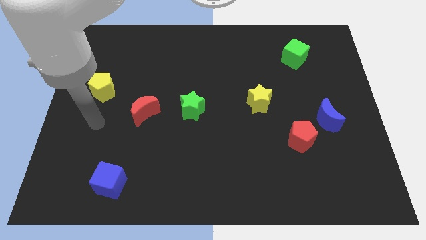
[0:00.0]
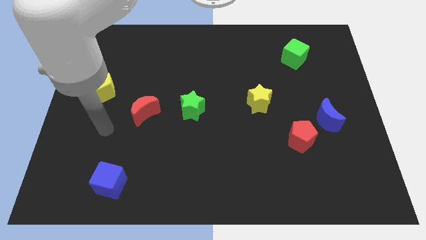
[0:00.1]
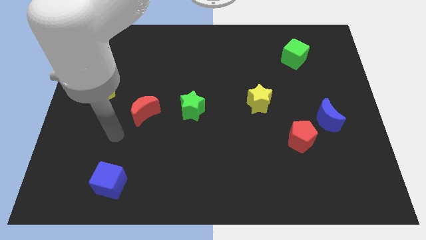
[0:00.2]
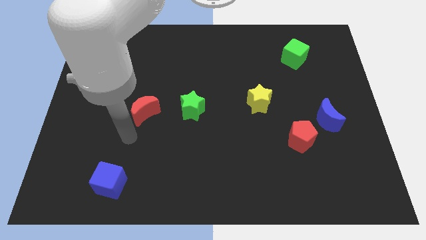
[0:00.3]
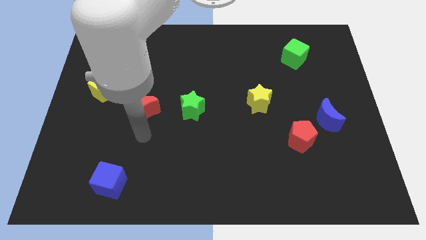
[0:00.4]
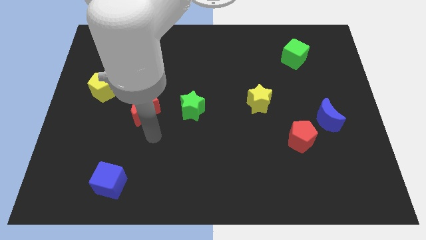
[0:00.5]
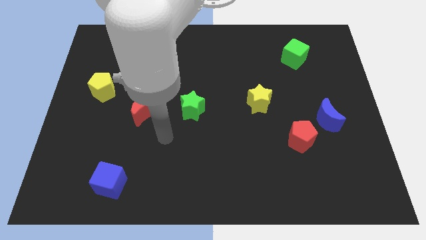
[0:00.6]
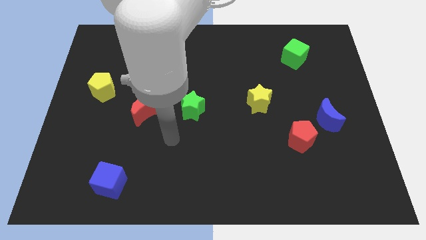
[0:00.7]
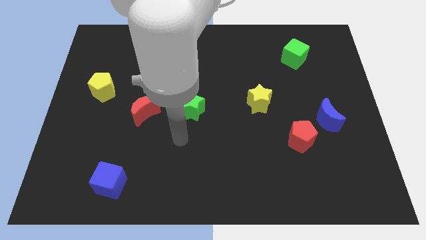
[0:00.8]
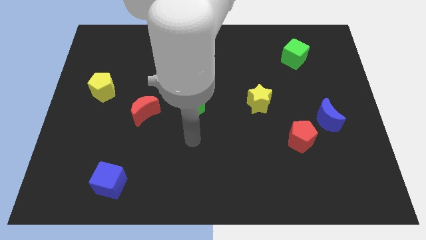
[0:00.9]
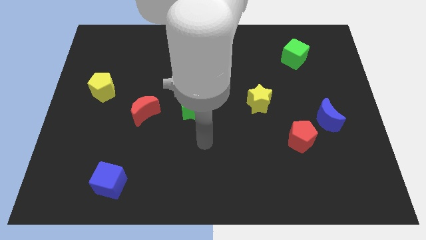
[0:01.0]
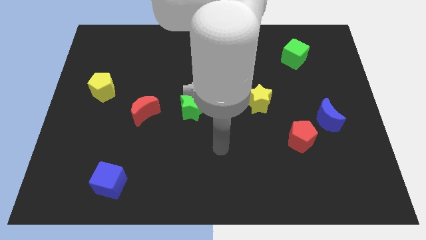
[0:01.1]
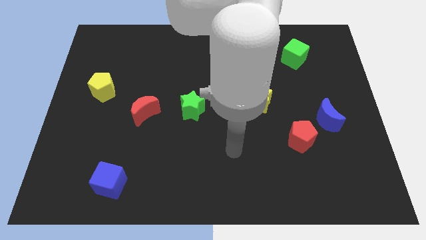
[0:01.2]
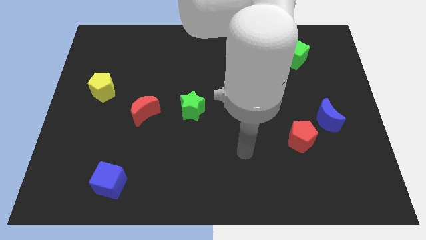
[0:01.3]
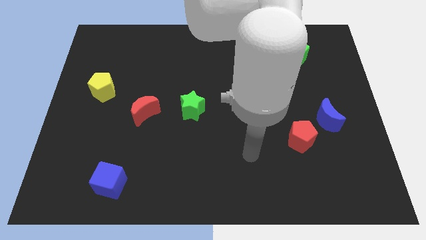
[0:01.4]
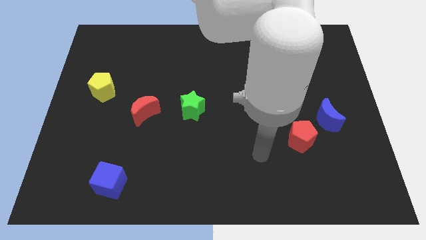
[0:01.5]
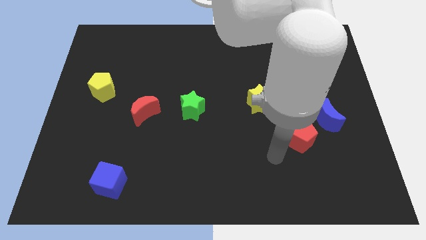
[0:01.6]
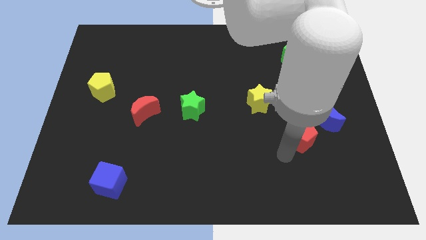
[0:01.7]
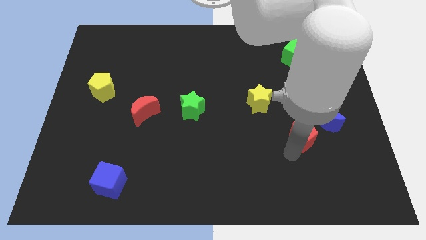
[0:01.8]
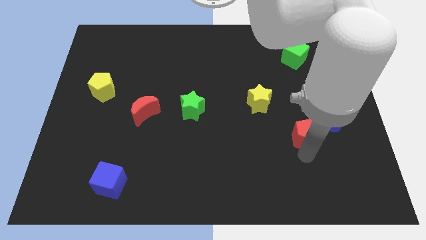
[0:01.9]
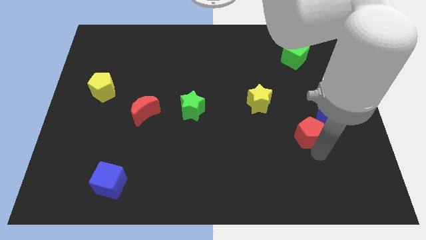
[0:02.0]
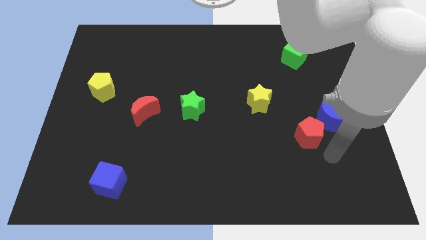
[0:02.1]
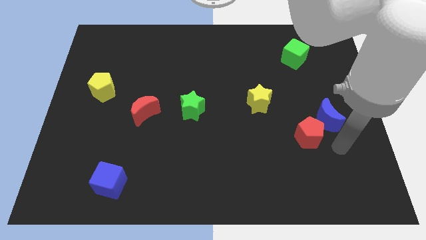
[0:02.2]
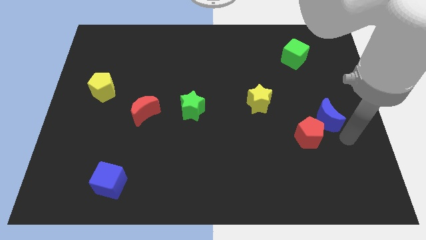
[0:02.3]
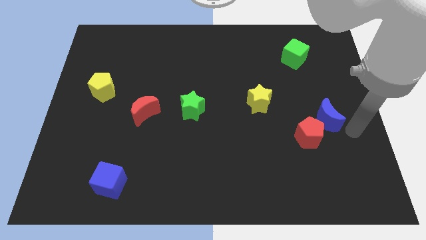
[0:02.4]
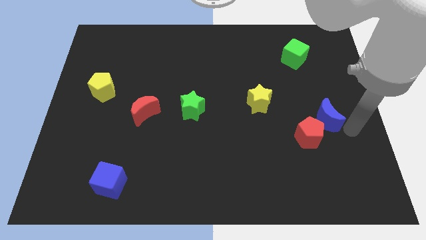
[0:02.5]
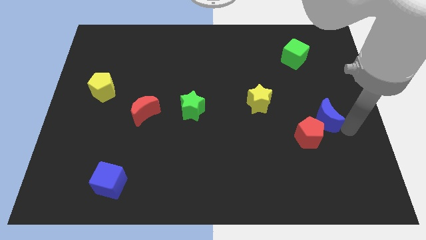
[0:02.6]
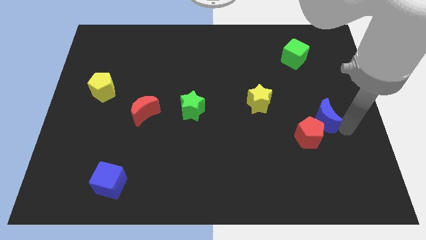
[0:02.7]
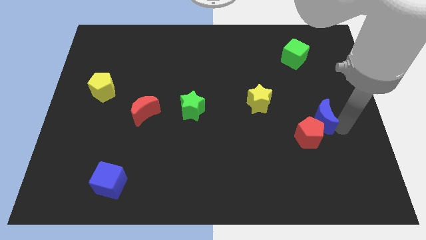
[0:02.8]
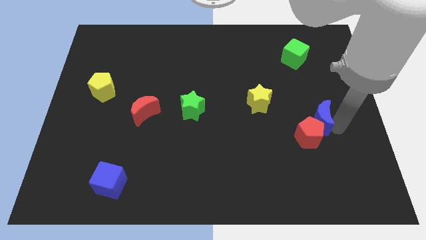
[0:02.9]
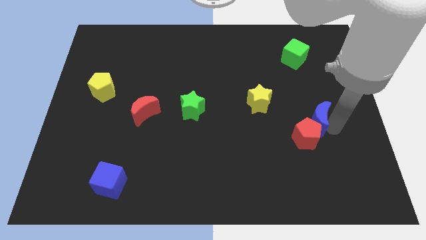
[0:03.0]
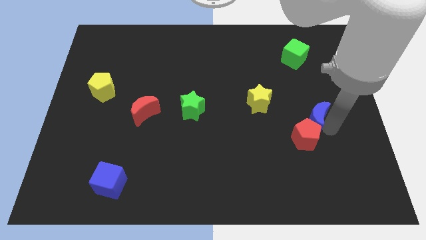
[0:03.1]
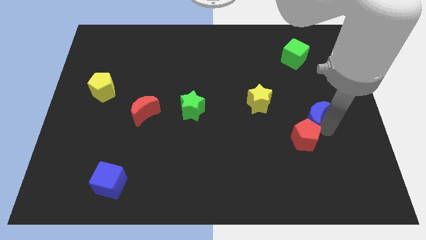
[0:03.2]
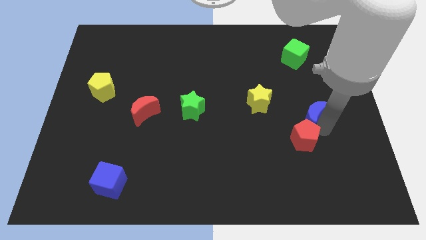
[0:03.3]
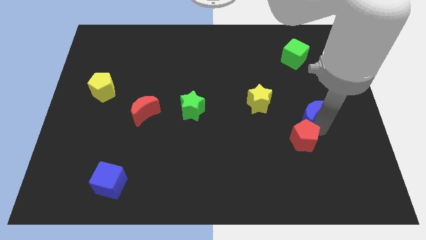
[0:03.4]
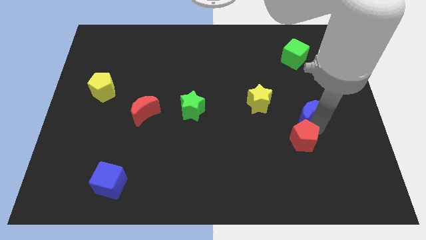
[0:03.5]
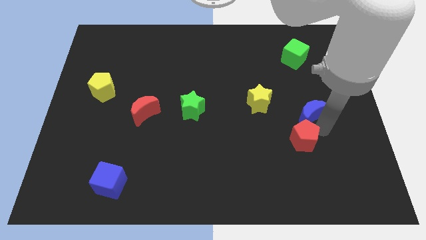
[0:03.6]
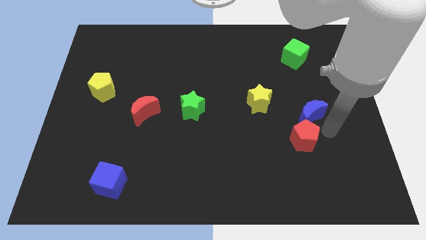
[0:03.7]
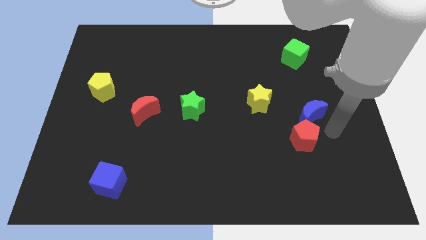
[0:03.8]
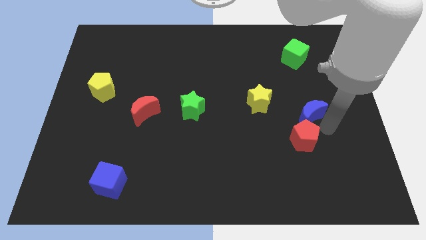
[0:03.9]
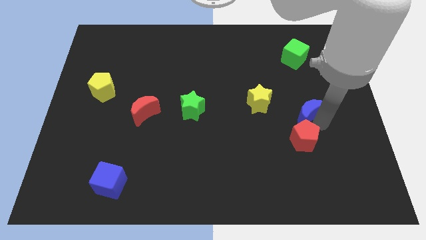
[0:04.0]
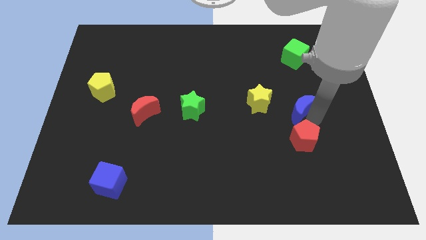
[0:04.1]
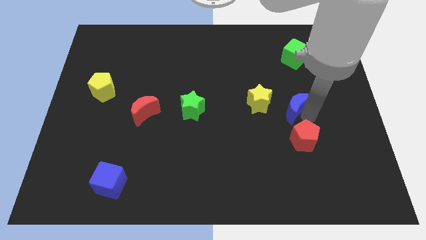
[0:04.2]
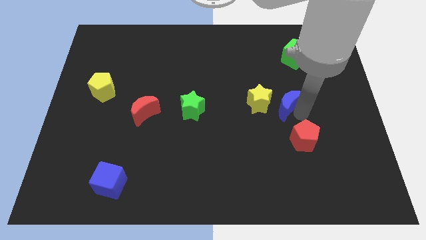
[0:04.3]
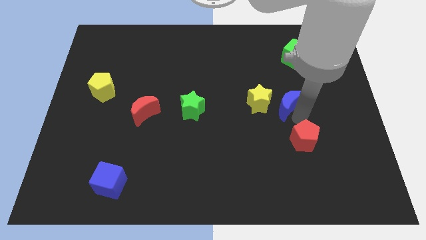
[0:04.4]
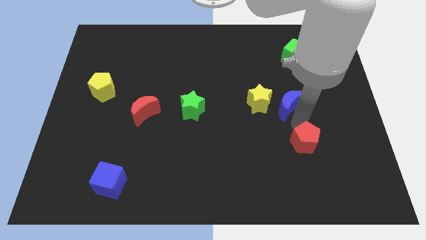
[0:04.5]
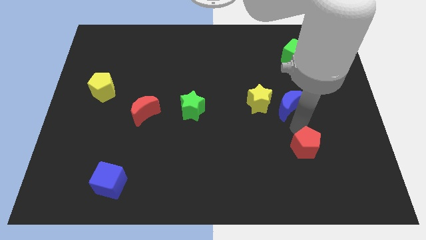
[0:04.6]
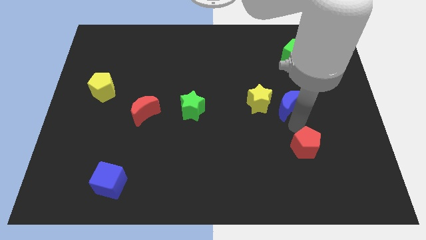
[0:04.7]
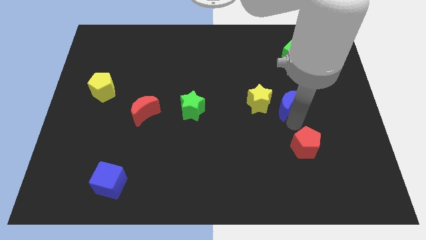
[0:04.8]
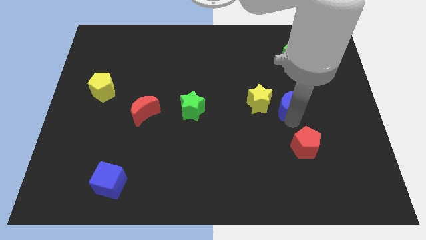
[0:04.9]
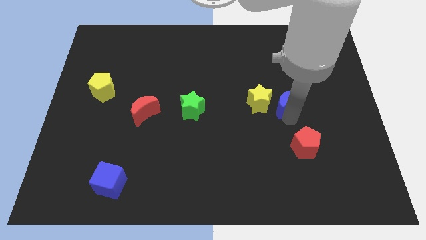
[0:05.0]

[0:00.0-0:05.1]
push the blue moon diagonally up and to the right of the yellow star

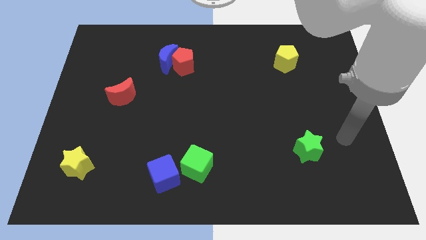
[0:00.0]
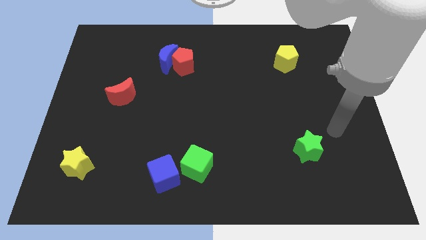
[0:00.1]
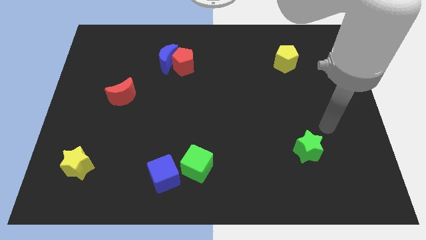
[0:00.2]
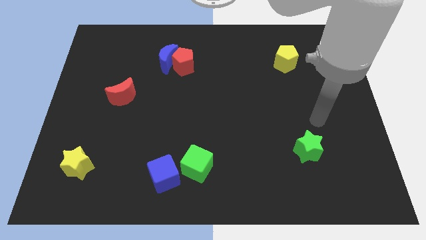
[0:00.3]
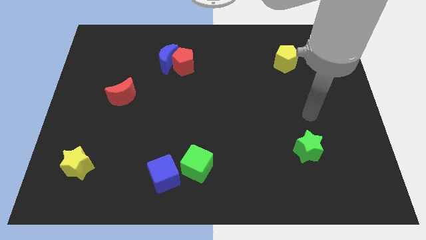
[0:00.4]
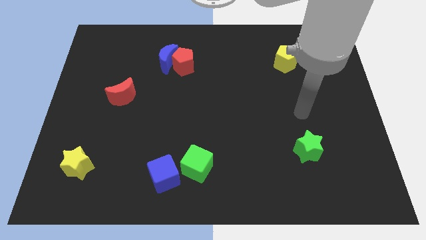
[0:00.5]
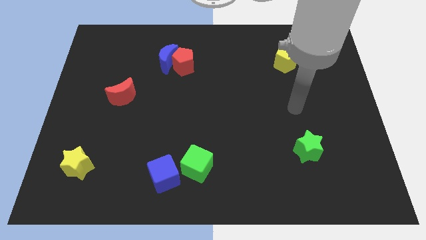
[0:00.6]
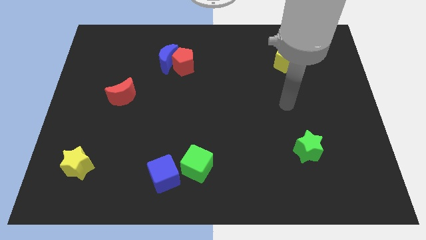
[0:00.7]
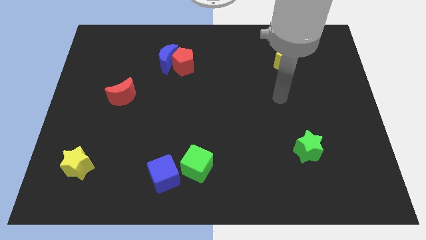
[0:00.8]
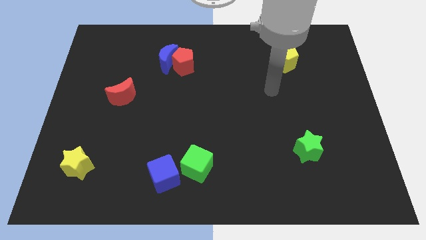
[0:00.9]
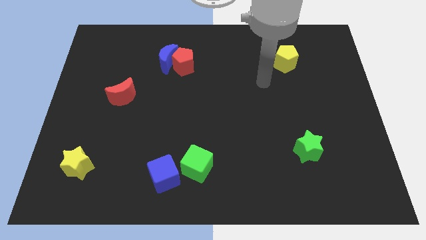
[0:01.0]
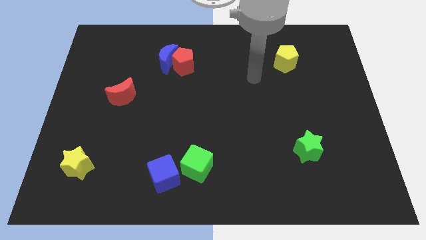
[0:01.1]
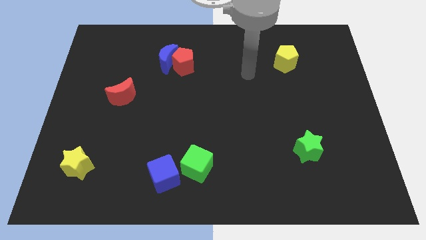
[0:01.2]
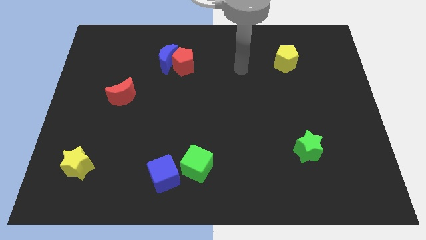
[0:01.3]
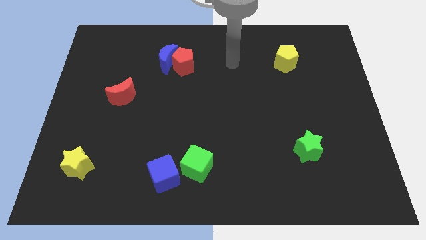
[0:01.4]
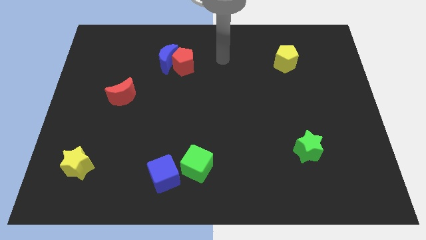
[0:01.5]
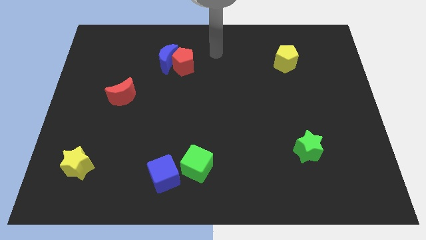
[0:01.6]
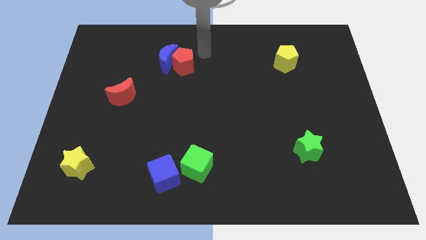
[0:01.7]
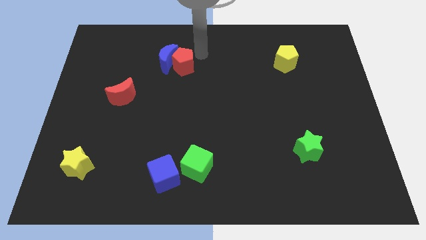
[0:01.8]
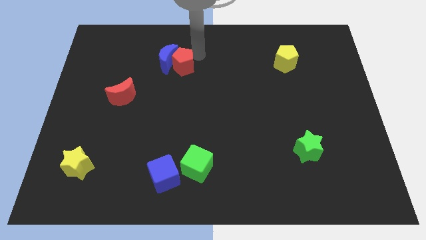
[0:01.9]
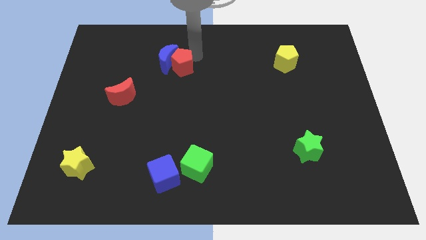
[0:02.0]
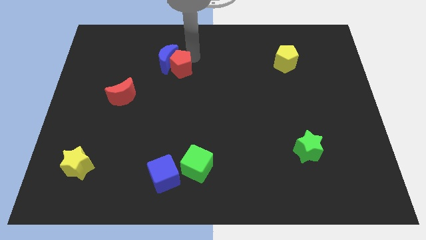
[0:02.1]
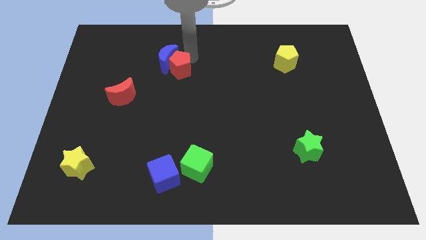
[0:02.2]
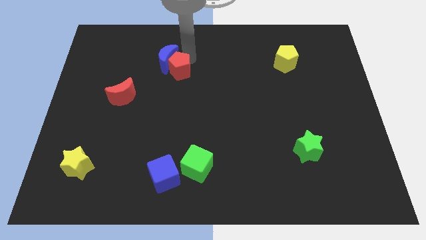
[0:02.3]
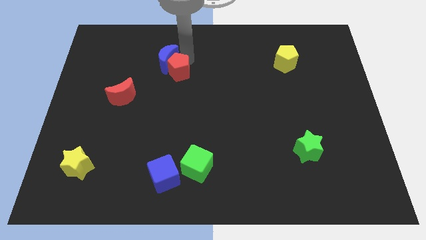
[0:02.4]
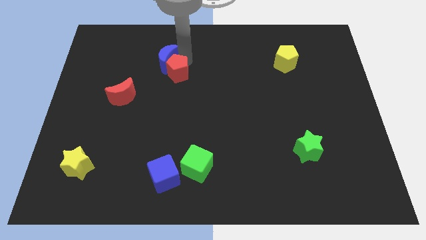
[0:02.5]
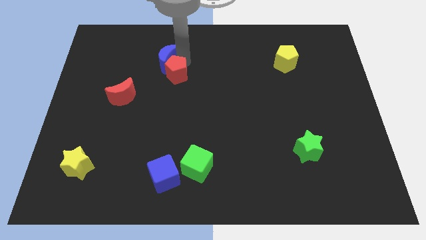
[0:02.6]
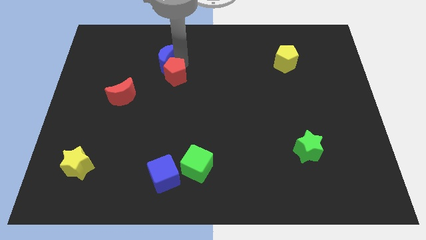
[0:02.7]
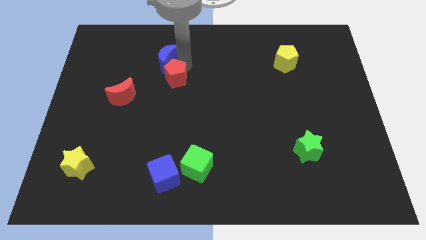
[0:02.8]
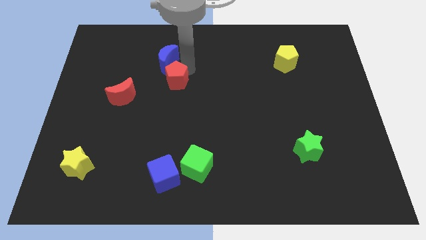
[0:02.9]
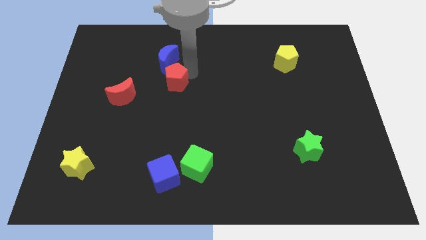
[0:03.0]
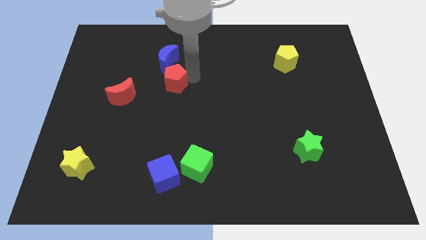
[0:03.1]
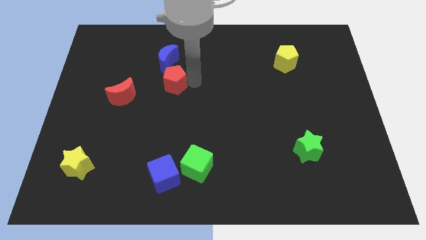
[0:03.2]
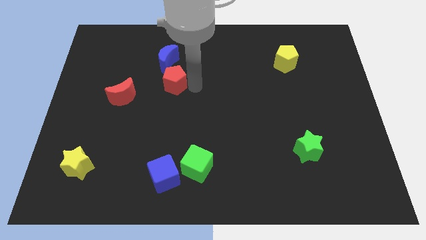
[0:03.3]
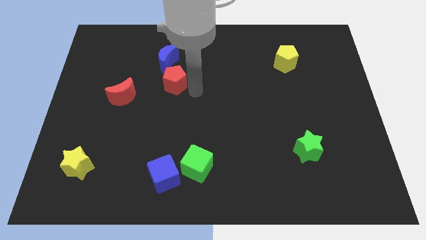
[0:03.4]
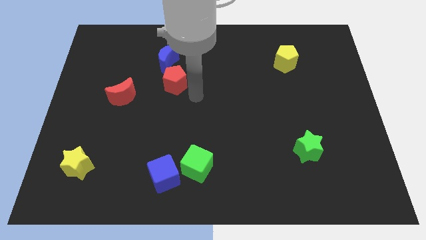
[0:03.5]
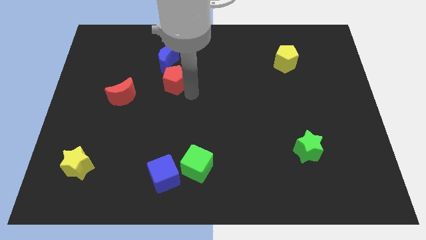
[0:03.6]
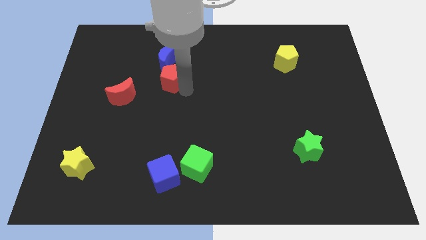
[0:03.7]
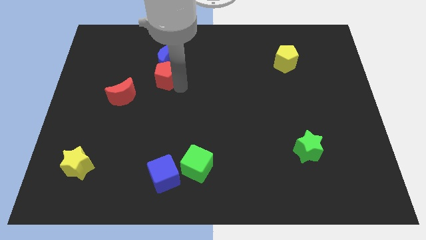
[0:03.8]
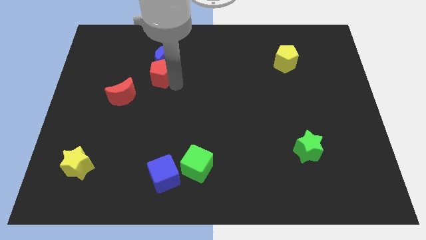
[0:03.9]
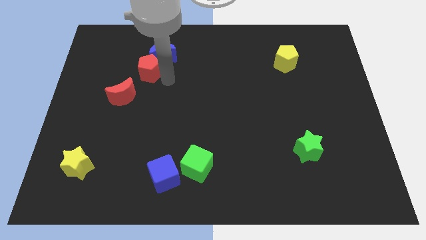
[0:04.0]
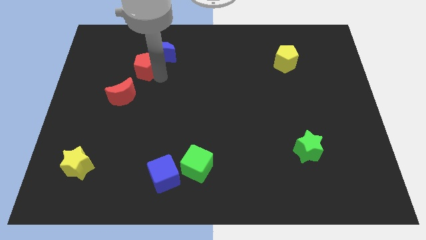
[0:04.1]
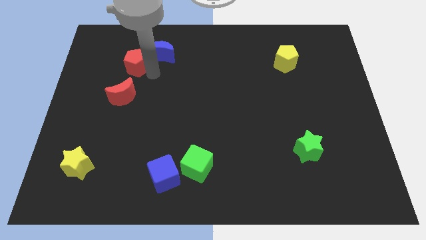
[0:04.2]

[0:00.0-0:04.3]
push the red pentagon left of the blue moon
